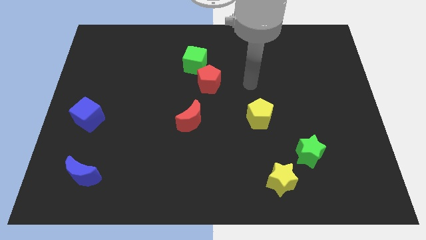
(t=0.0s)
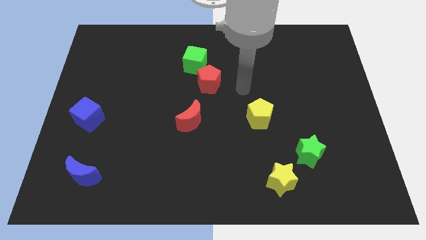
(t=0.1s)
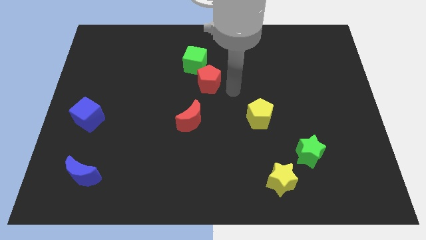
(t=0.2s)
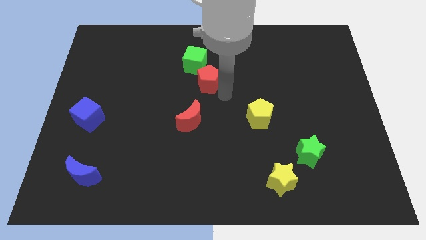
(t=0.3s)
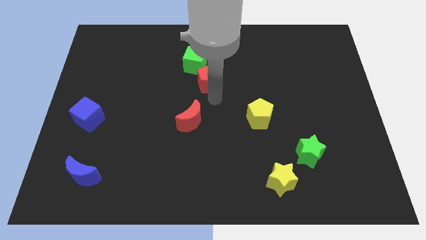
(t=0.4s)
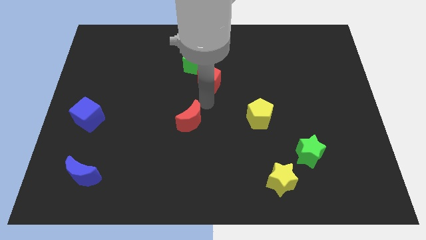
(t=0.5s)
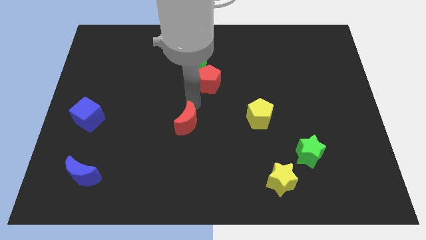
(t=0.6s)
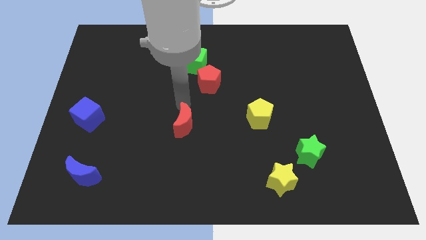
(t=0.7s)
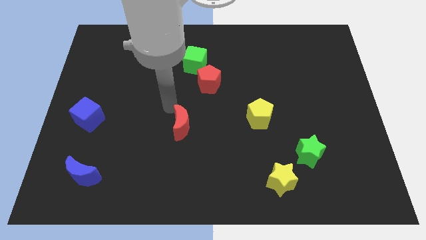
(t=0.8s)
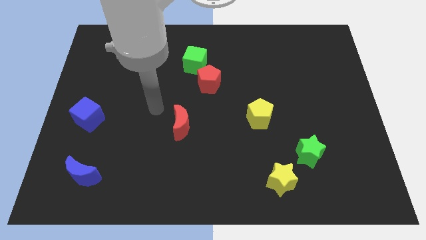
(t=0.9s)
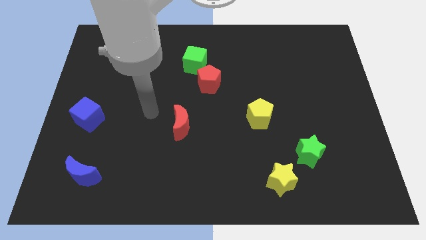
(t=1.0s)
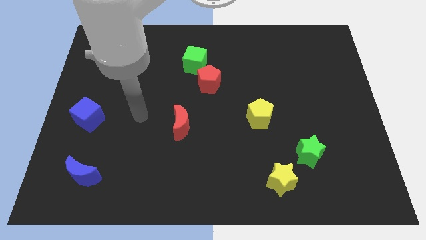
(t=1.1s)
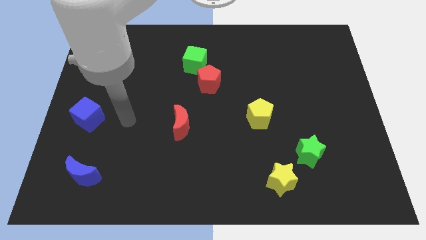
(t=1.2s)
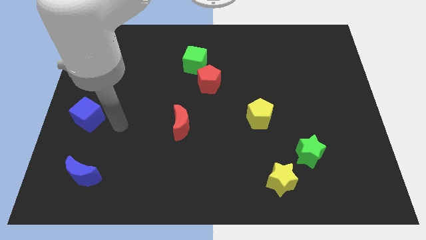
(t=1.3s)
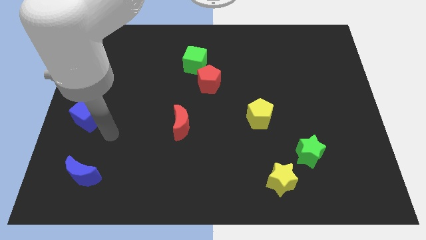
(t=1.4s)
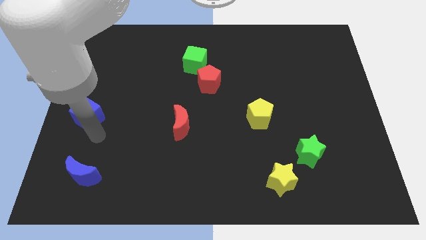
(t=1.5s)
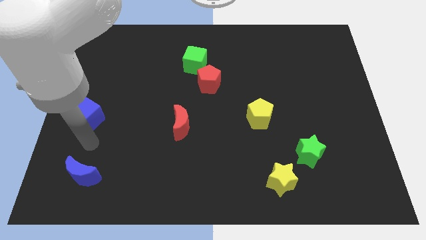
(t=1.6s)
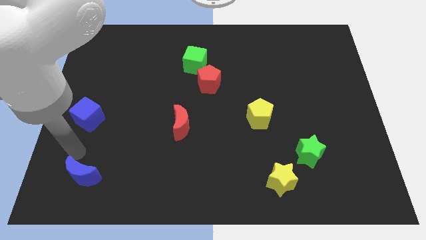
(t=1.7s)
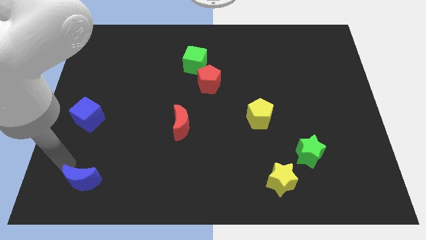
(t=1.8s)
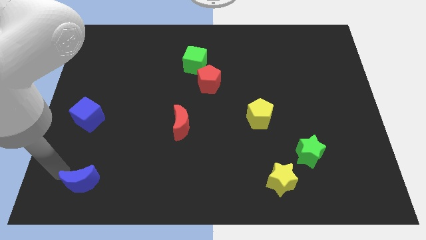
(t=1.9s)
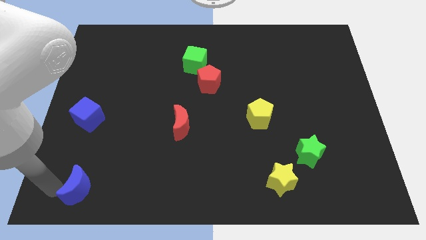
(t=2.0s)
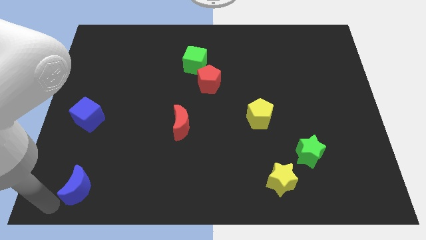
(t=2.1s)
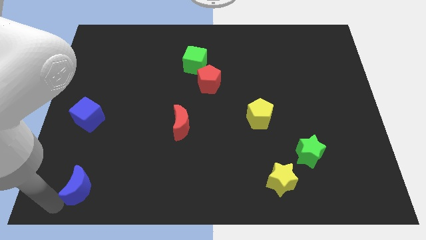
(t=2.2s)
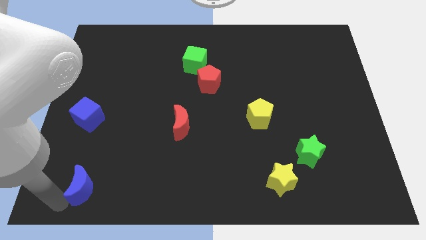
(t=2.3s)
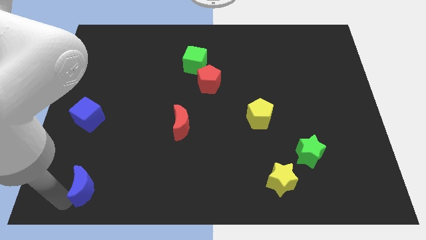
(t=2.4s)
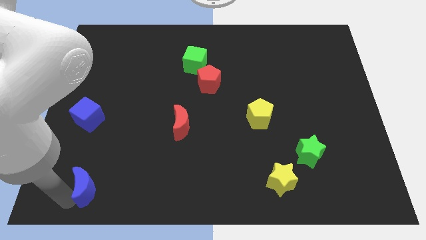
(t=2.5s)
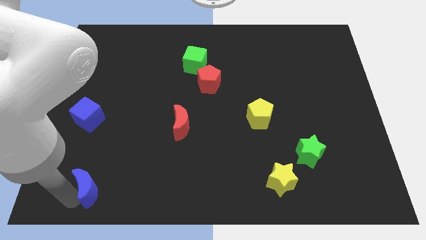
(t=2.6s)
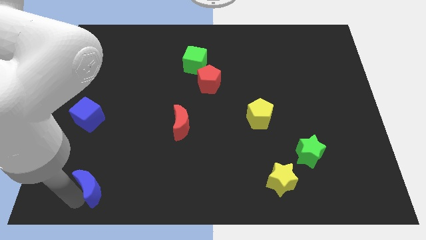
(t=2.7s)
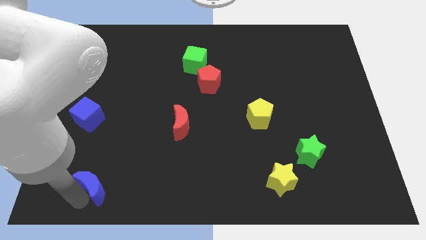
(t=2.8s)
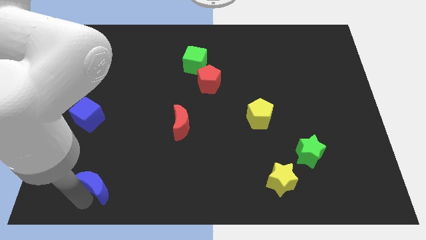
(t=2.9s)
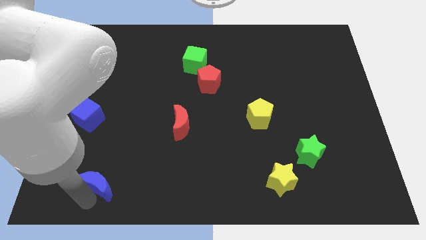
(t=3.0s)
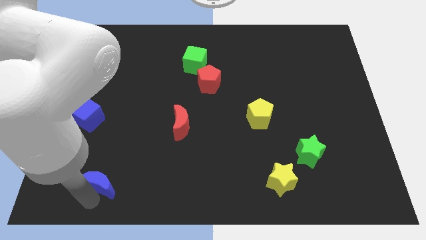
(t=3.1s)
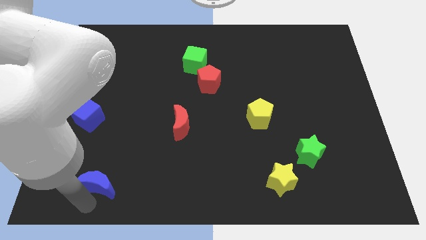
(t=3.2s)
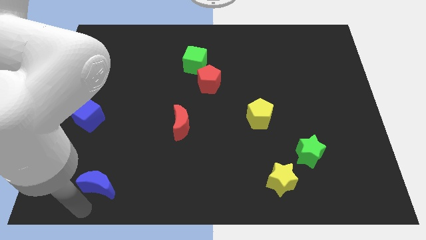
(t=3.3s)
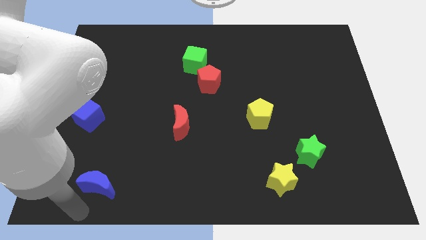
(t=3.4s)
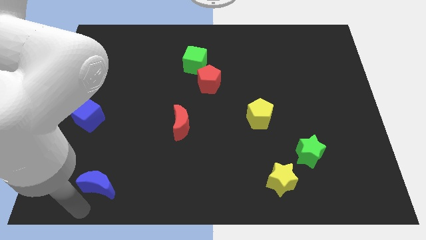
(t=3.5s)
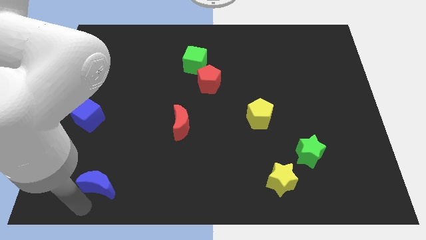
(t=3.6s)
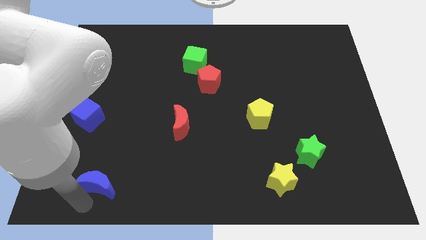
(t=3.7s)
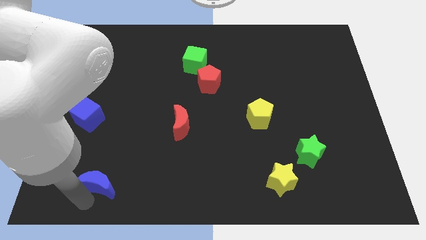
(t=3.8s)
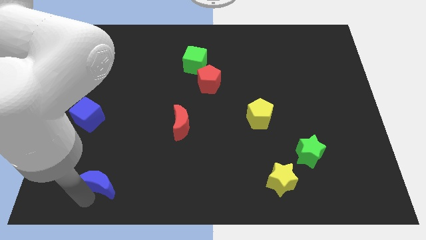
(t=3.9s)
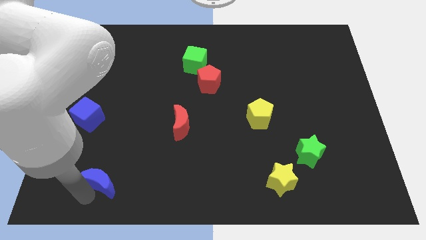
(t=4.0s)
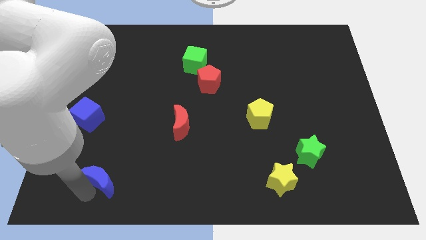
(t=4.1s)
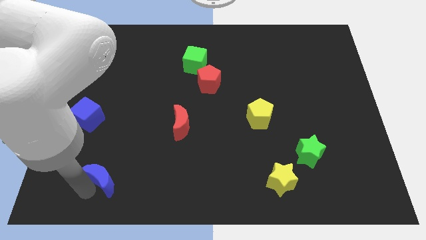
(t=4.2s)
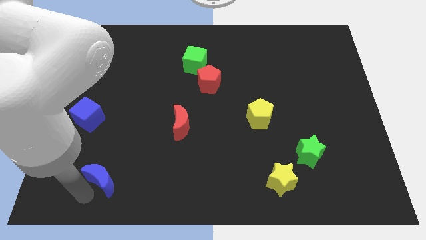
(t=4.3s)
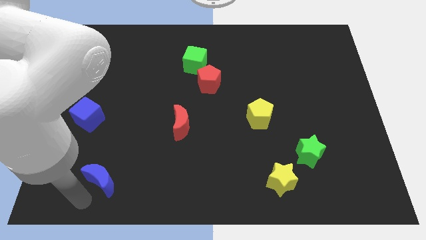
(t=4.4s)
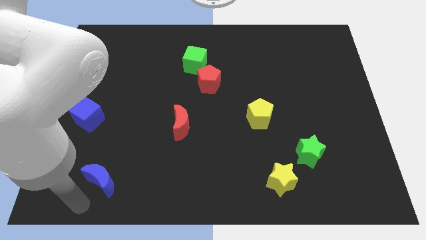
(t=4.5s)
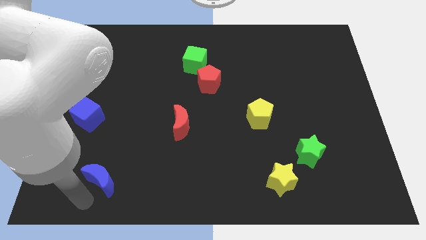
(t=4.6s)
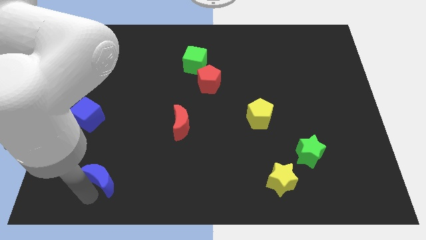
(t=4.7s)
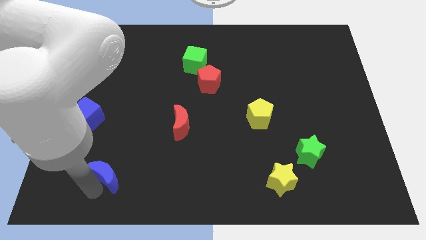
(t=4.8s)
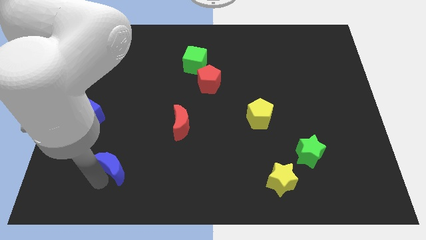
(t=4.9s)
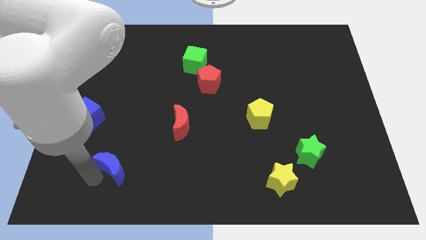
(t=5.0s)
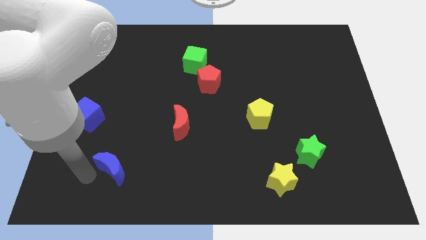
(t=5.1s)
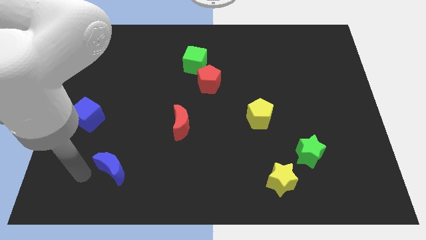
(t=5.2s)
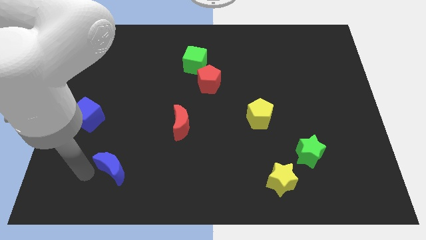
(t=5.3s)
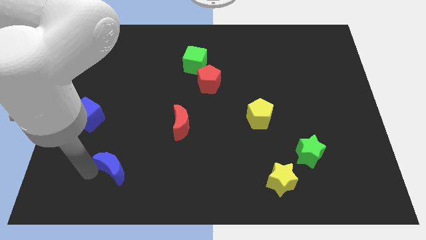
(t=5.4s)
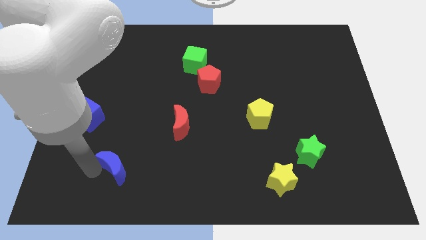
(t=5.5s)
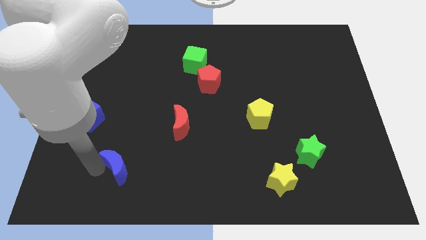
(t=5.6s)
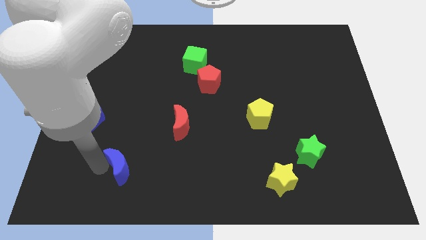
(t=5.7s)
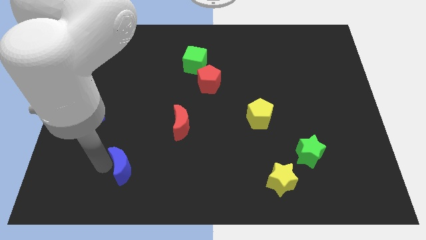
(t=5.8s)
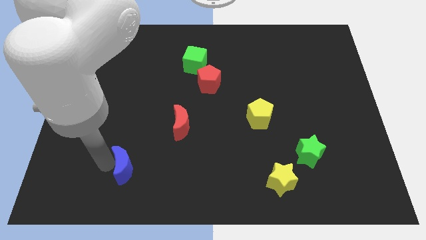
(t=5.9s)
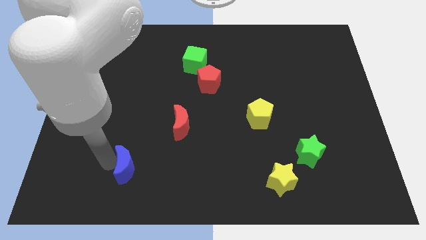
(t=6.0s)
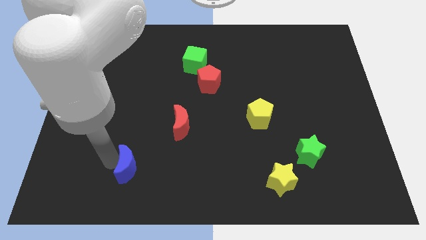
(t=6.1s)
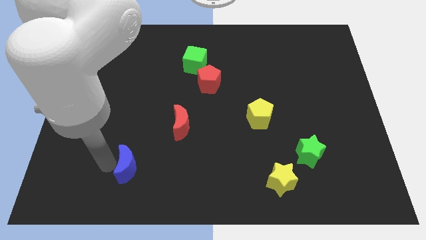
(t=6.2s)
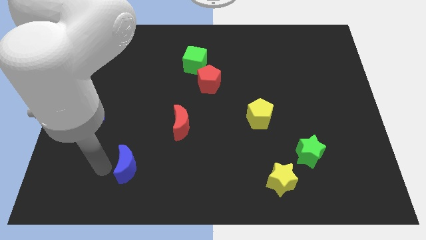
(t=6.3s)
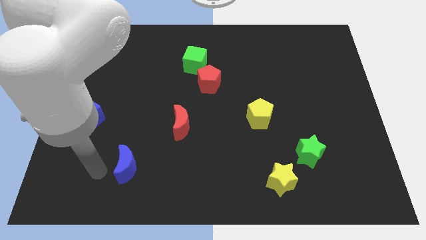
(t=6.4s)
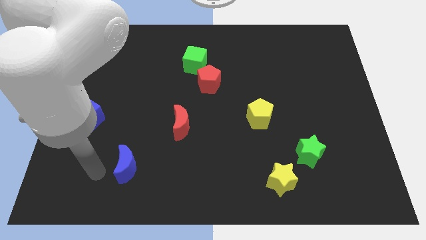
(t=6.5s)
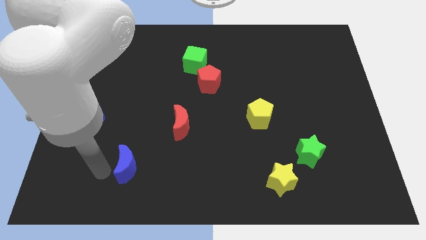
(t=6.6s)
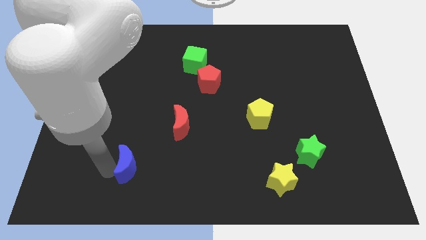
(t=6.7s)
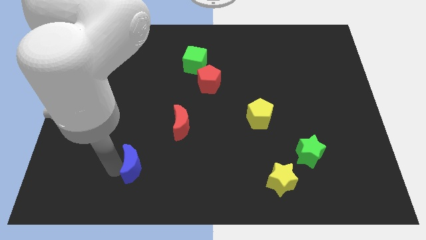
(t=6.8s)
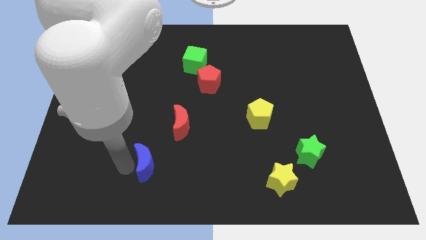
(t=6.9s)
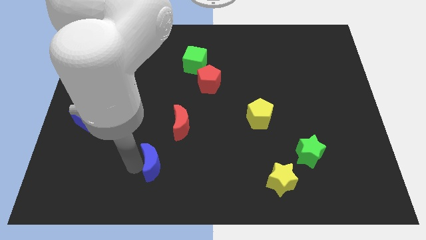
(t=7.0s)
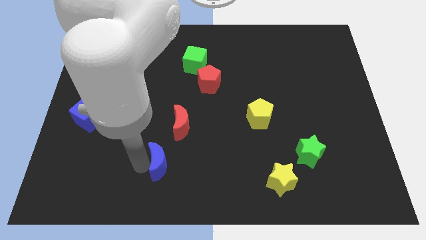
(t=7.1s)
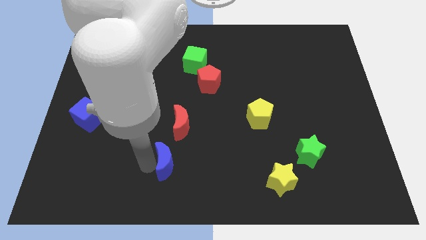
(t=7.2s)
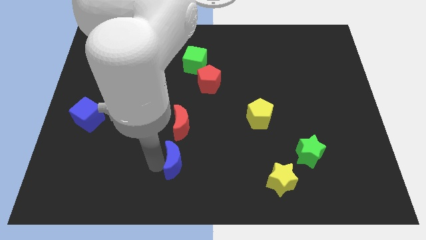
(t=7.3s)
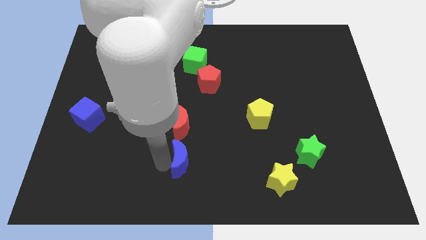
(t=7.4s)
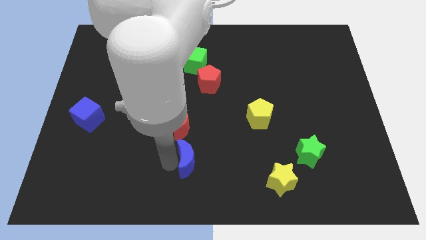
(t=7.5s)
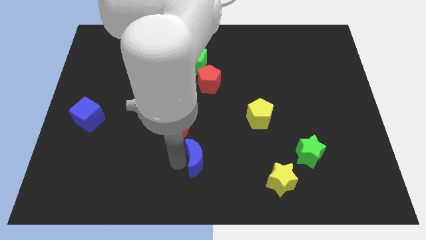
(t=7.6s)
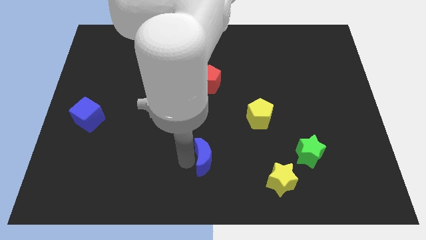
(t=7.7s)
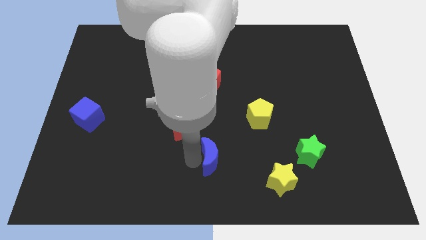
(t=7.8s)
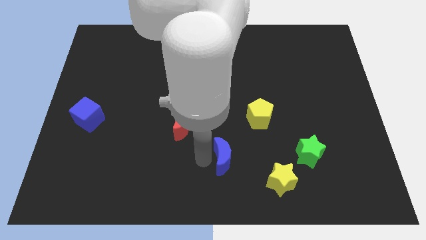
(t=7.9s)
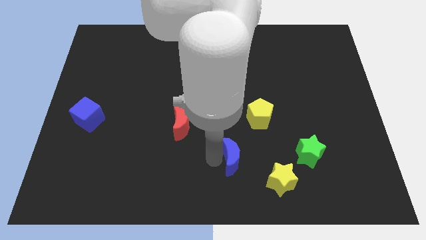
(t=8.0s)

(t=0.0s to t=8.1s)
push the blue moon to the left of the green star
